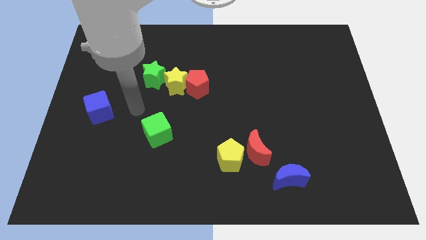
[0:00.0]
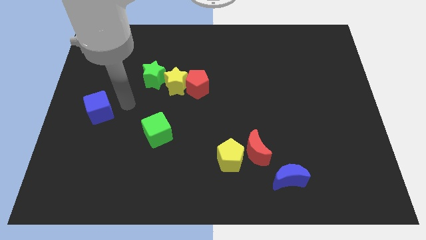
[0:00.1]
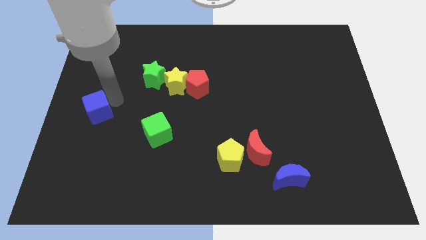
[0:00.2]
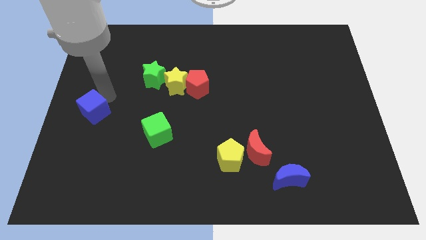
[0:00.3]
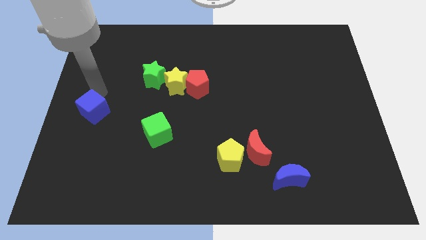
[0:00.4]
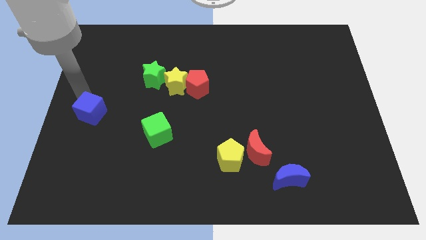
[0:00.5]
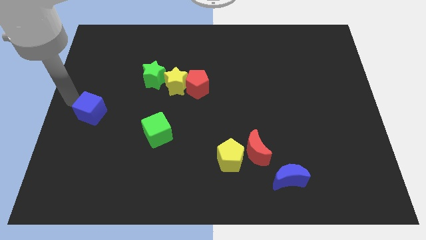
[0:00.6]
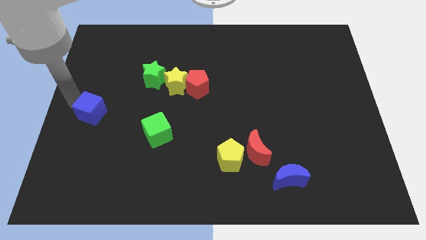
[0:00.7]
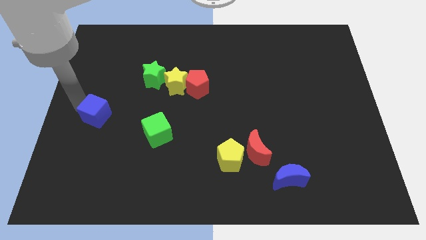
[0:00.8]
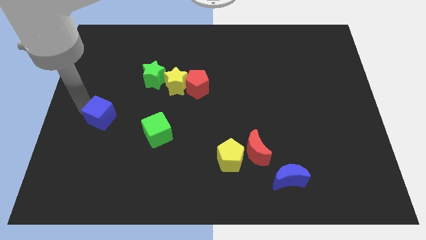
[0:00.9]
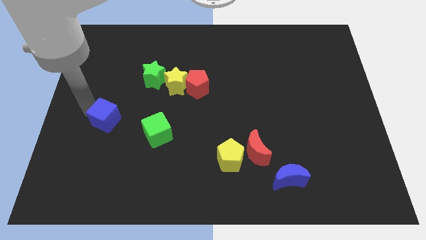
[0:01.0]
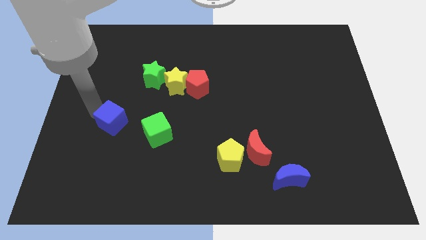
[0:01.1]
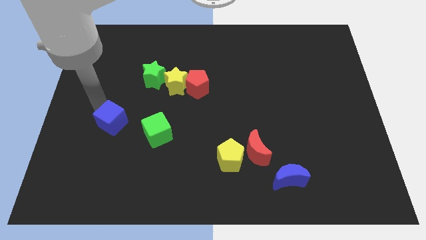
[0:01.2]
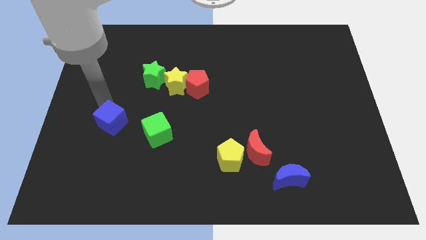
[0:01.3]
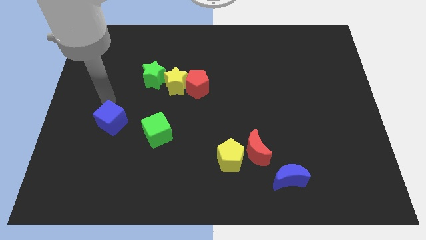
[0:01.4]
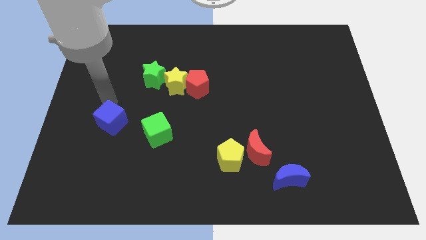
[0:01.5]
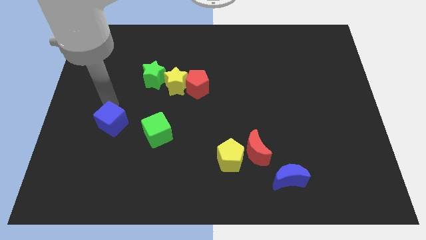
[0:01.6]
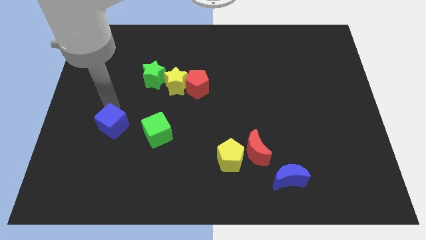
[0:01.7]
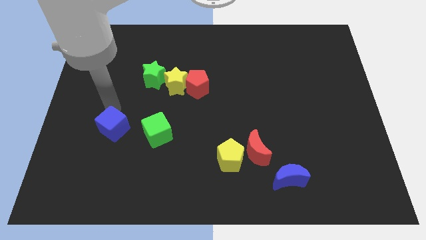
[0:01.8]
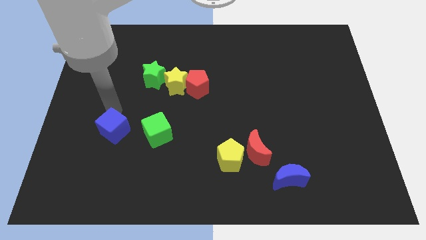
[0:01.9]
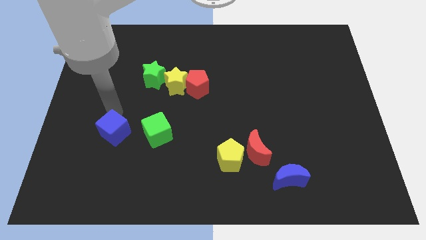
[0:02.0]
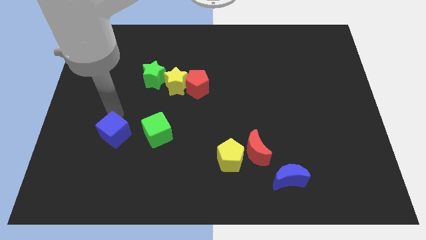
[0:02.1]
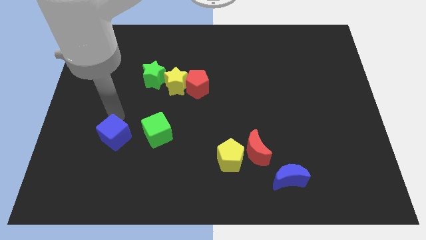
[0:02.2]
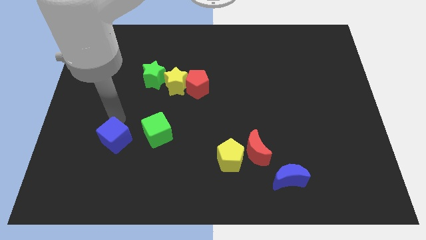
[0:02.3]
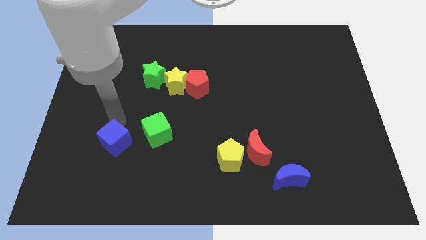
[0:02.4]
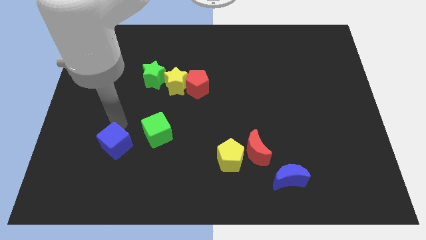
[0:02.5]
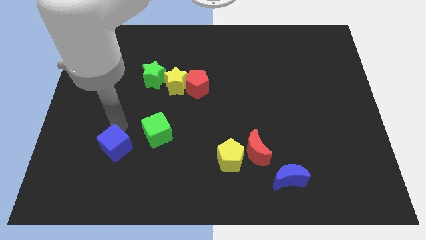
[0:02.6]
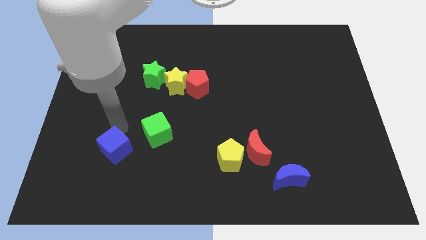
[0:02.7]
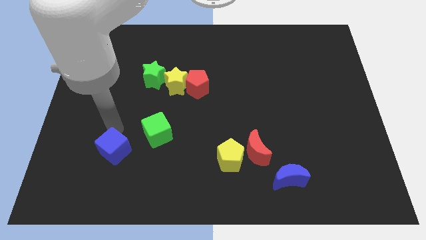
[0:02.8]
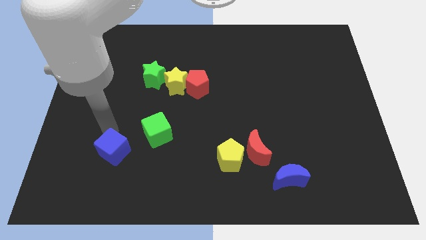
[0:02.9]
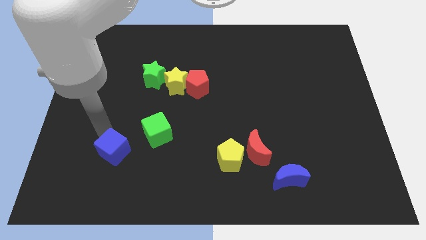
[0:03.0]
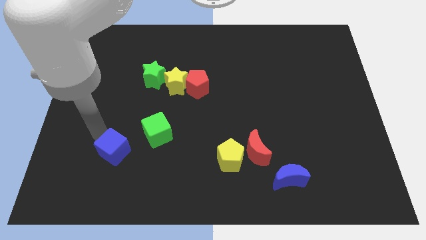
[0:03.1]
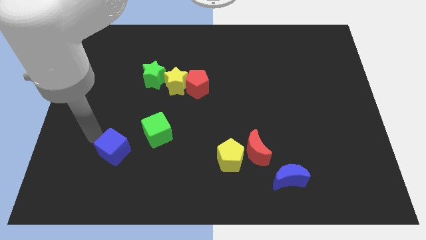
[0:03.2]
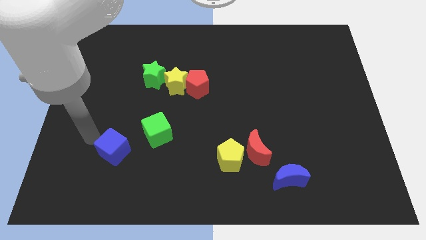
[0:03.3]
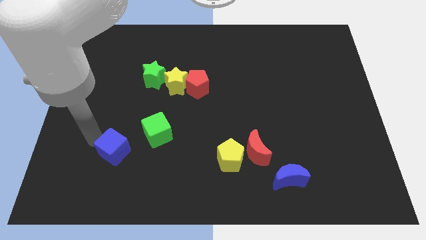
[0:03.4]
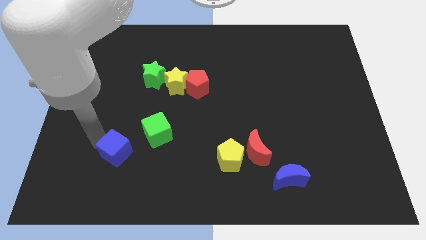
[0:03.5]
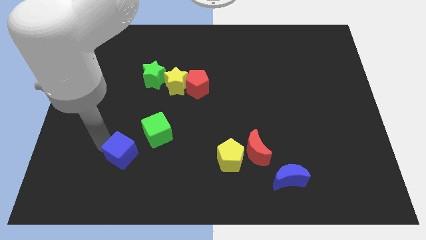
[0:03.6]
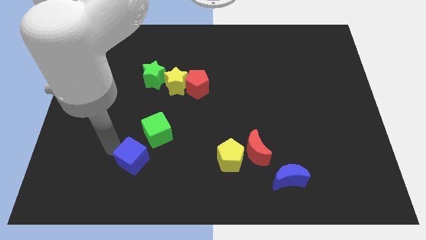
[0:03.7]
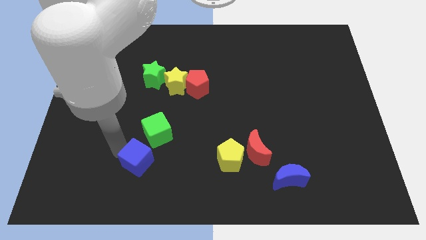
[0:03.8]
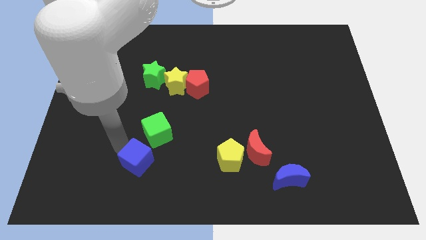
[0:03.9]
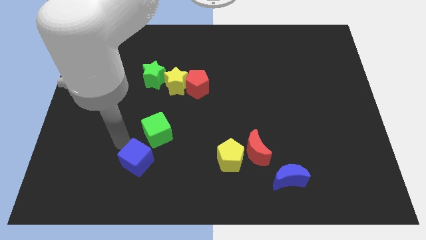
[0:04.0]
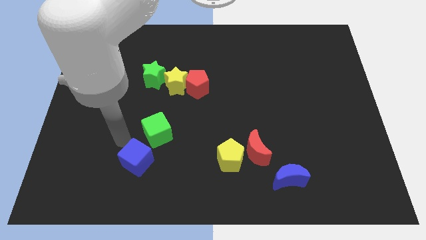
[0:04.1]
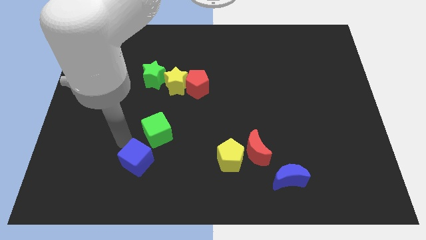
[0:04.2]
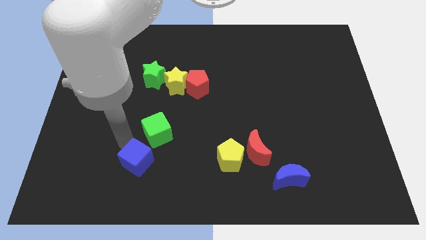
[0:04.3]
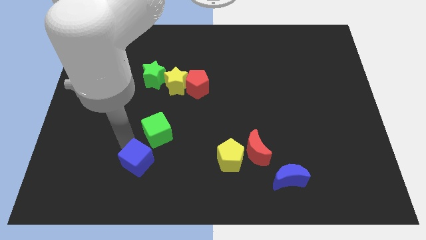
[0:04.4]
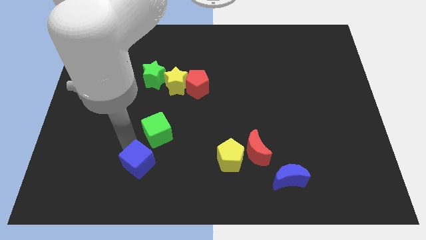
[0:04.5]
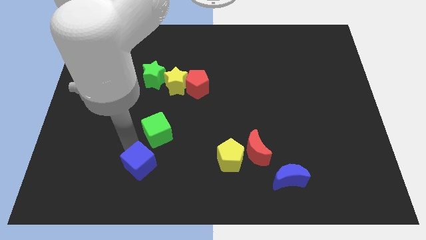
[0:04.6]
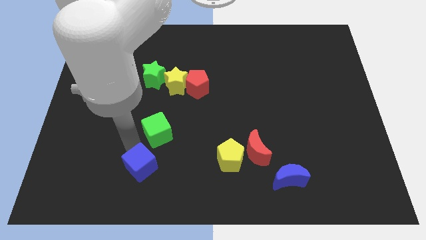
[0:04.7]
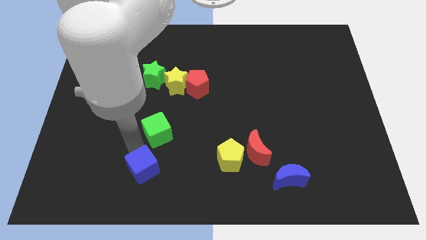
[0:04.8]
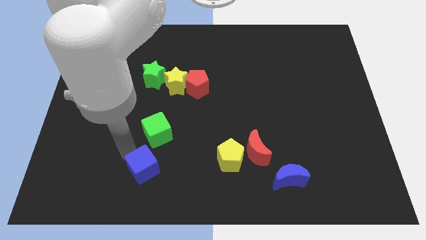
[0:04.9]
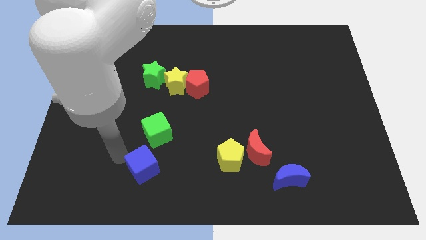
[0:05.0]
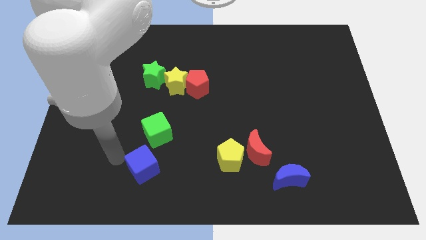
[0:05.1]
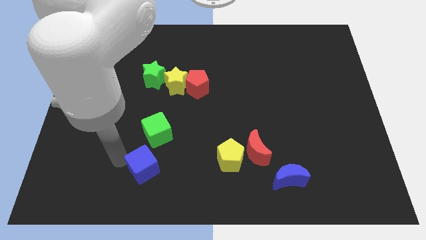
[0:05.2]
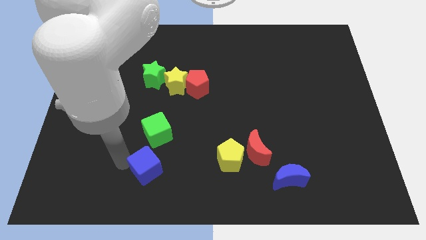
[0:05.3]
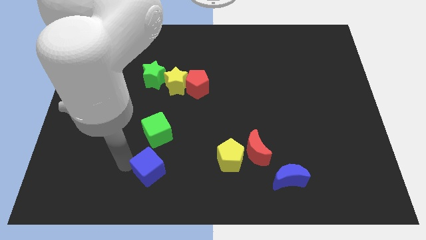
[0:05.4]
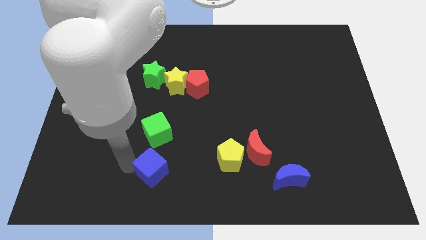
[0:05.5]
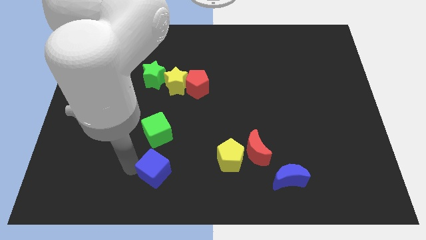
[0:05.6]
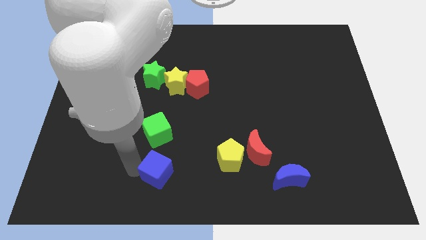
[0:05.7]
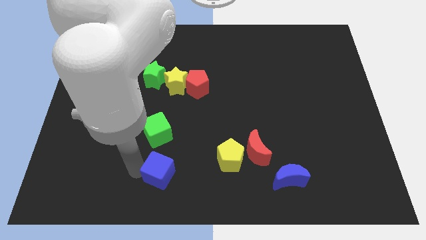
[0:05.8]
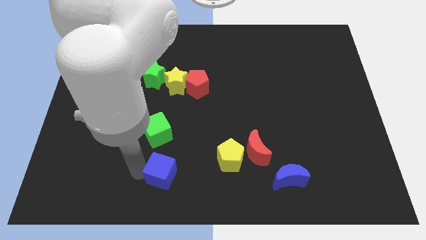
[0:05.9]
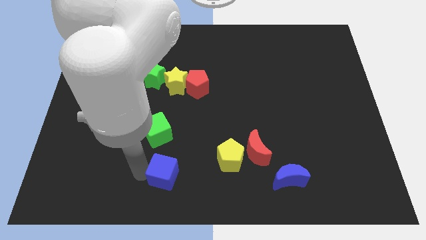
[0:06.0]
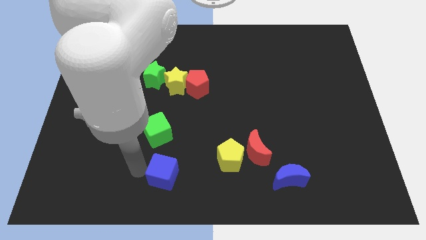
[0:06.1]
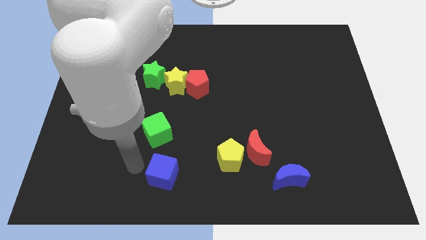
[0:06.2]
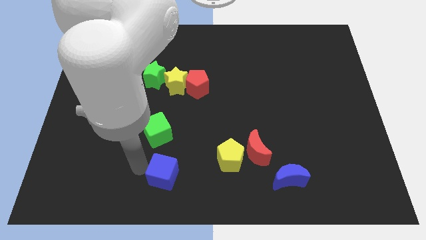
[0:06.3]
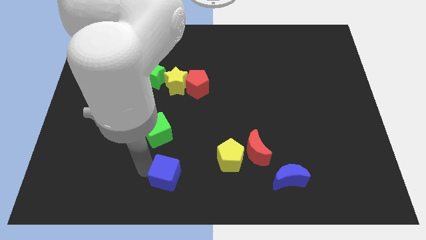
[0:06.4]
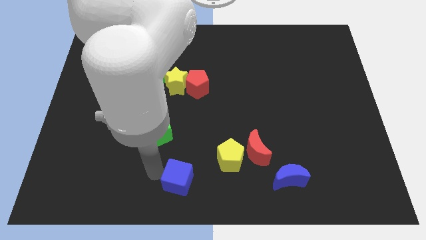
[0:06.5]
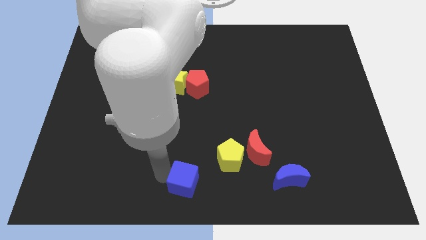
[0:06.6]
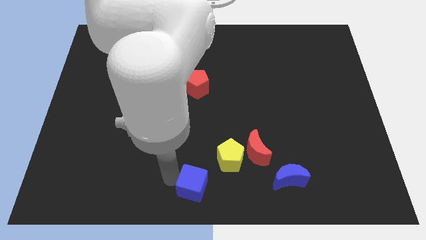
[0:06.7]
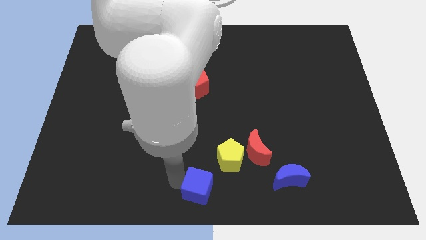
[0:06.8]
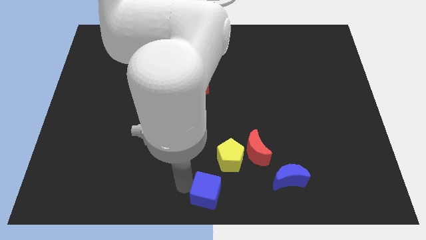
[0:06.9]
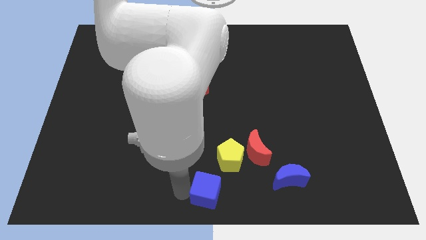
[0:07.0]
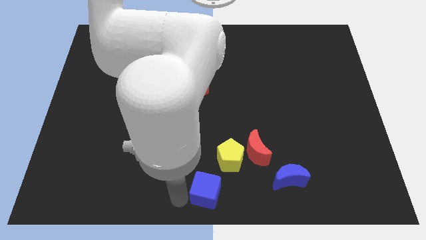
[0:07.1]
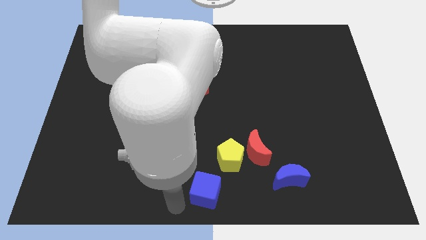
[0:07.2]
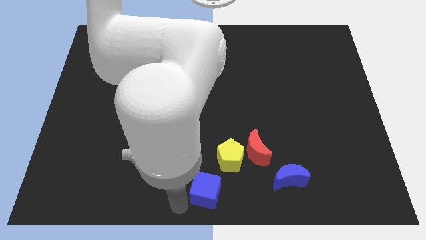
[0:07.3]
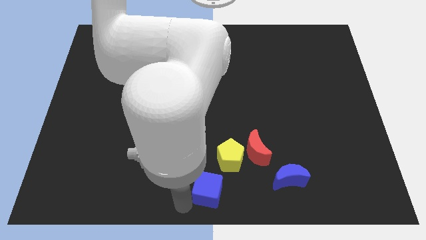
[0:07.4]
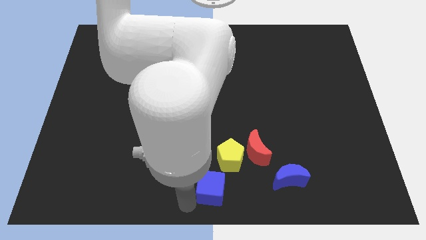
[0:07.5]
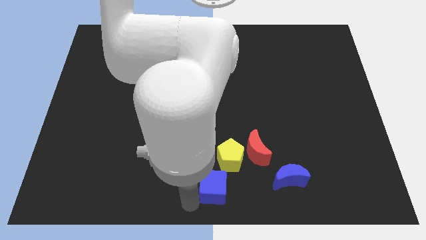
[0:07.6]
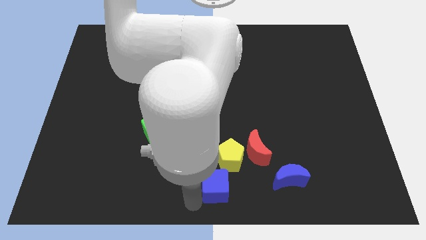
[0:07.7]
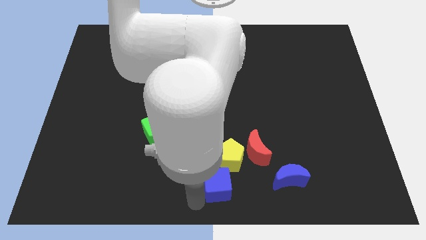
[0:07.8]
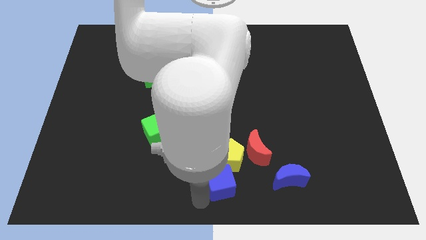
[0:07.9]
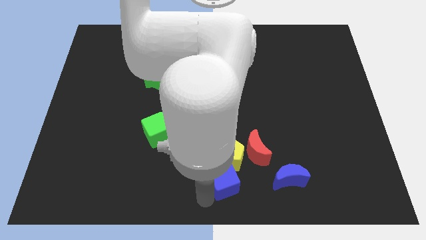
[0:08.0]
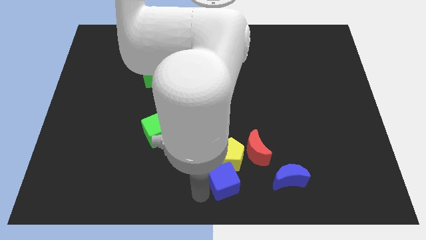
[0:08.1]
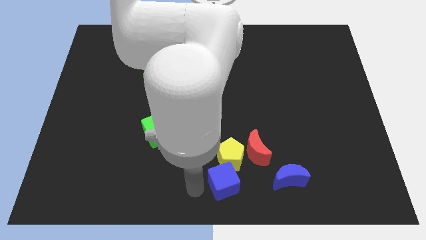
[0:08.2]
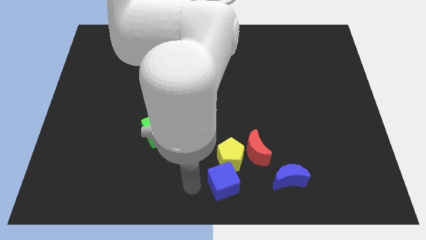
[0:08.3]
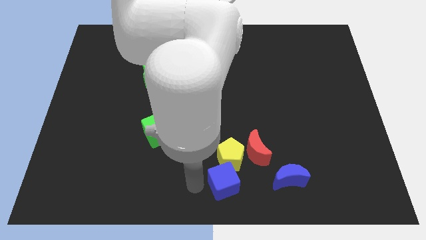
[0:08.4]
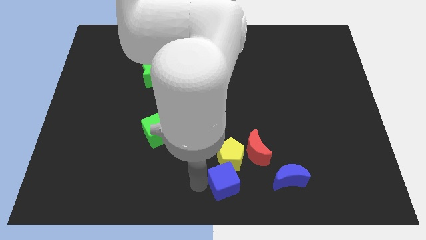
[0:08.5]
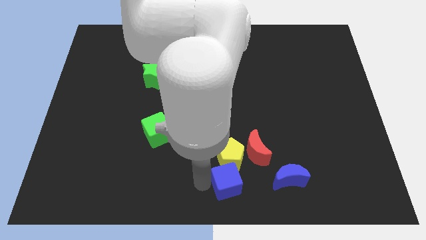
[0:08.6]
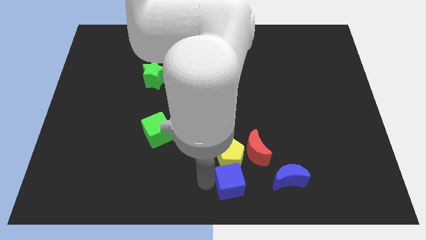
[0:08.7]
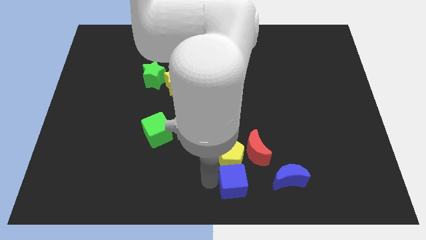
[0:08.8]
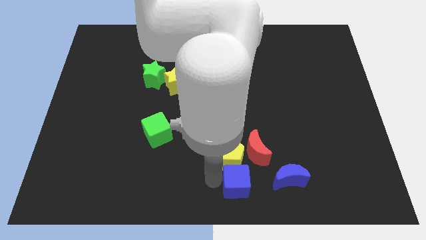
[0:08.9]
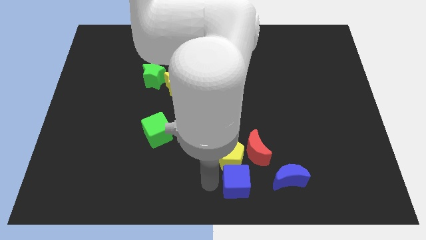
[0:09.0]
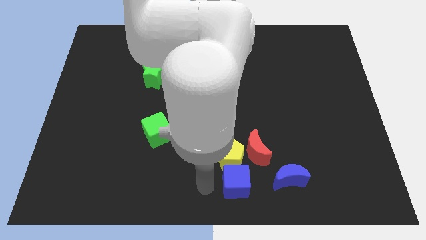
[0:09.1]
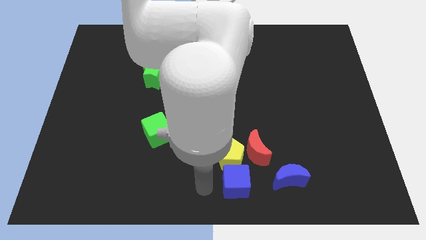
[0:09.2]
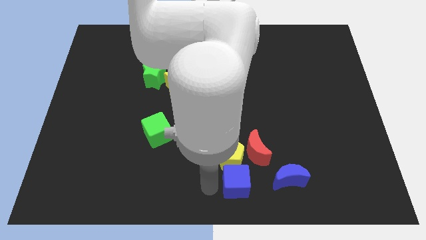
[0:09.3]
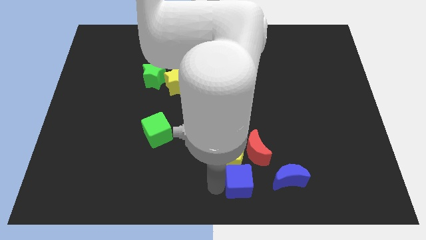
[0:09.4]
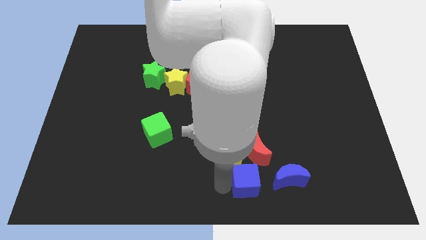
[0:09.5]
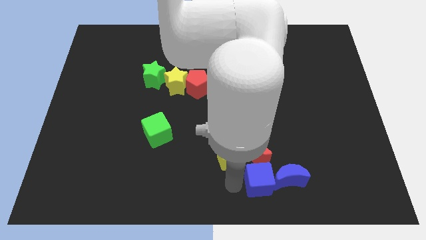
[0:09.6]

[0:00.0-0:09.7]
slide the blue cube to the blue moon
